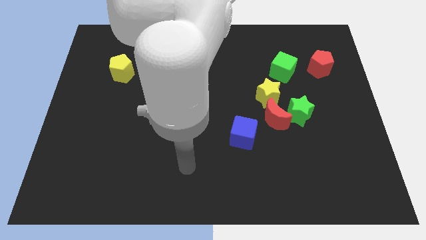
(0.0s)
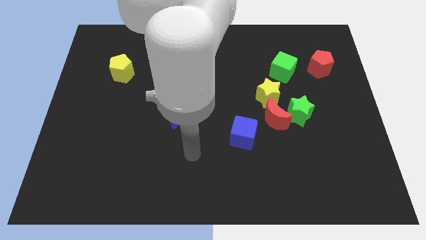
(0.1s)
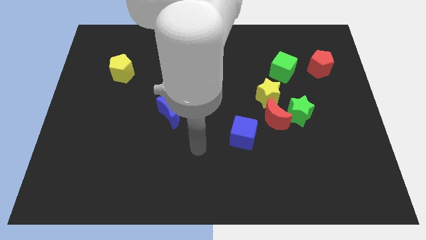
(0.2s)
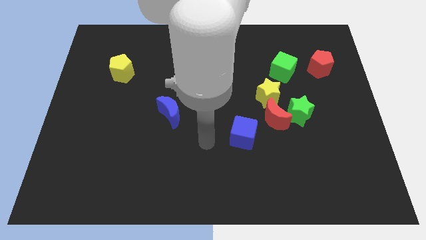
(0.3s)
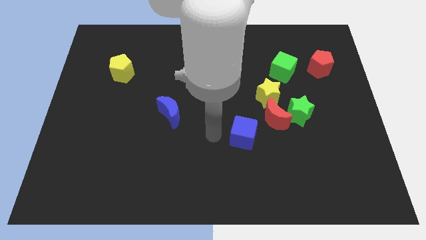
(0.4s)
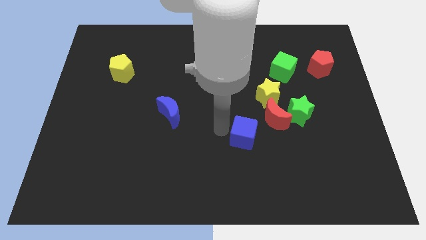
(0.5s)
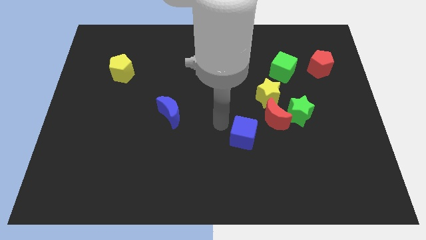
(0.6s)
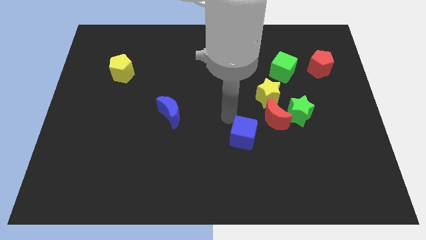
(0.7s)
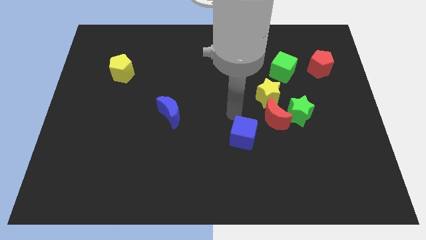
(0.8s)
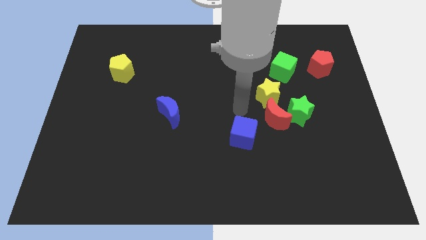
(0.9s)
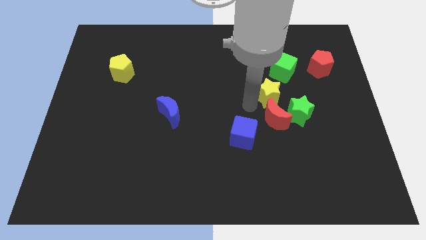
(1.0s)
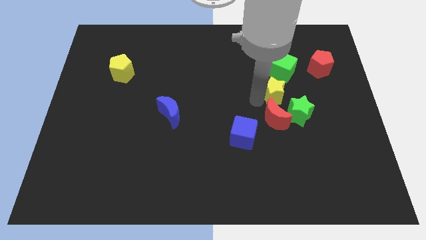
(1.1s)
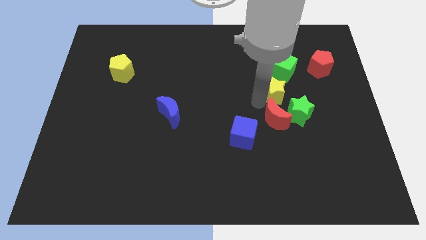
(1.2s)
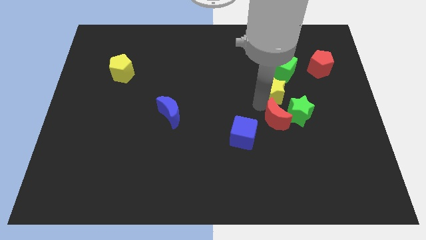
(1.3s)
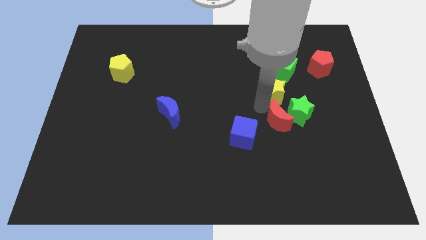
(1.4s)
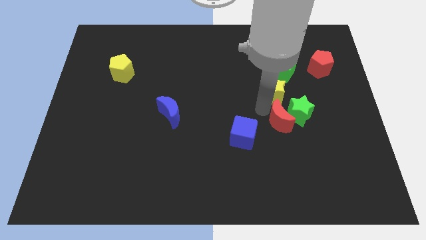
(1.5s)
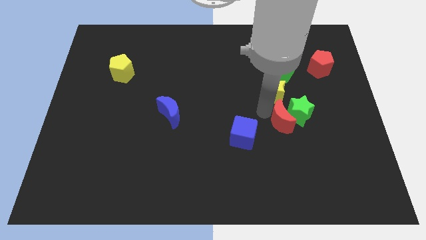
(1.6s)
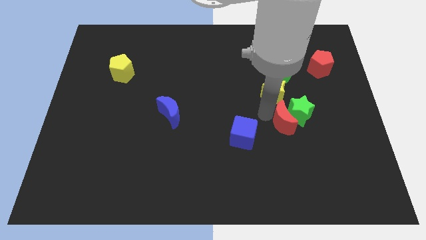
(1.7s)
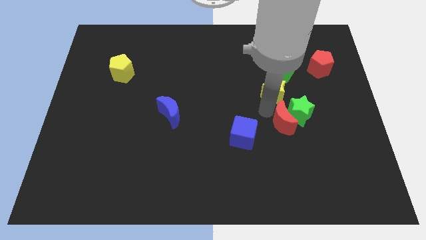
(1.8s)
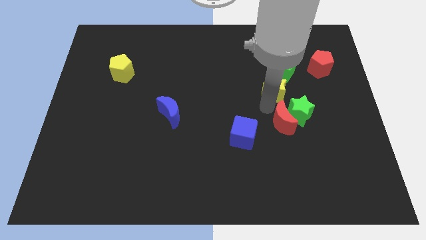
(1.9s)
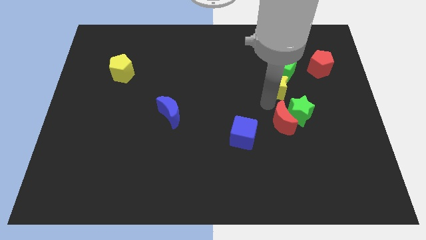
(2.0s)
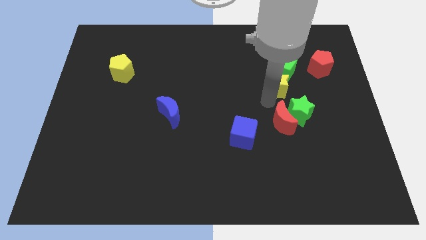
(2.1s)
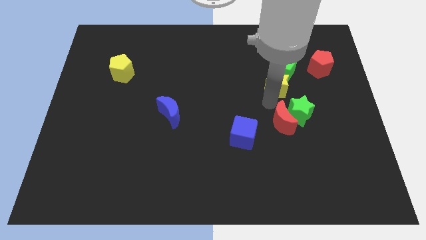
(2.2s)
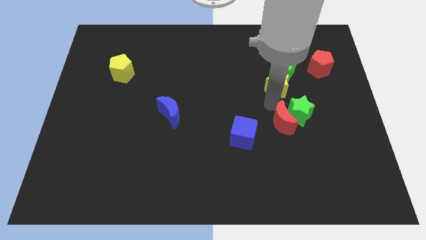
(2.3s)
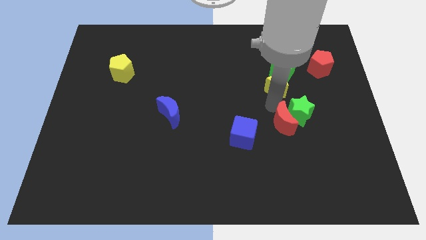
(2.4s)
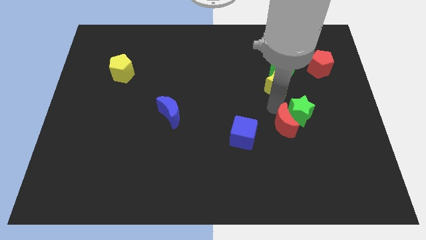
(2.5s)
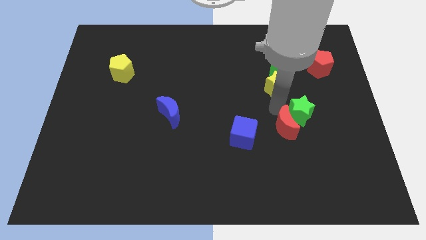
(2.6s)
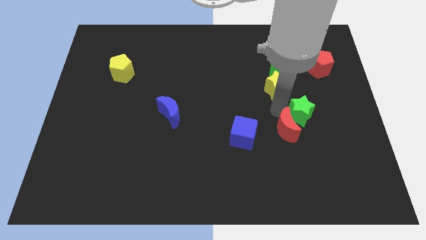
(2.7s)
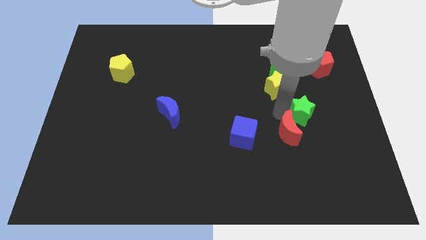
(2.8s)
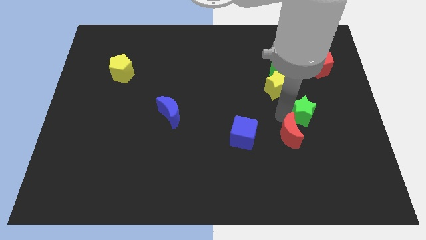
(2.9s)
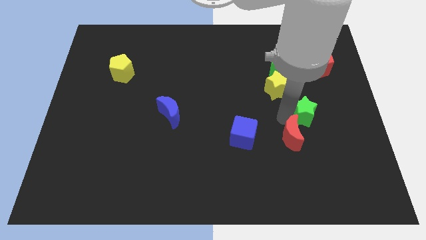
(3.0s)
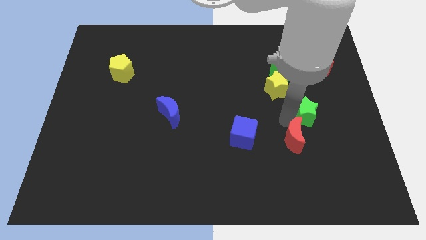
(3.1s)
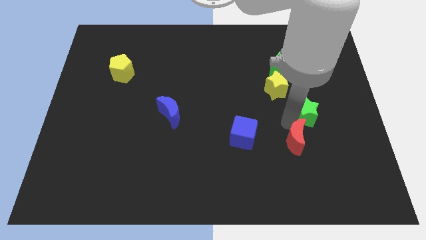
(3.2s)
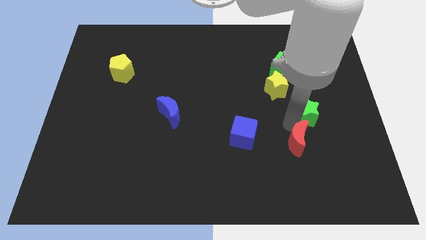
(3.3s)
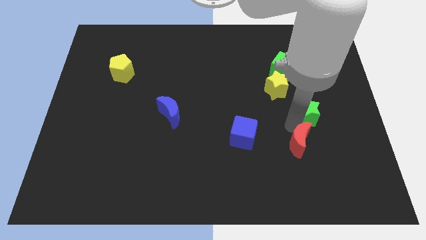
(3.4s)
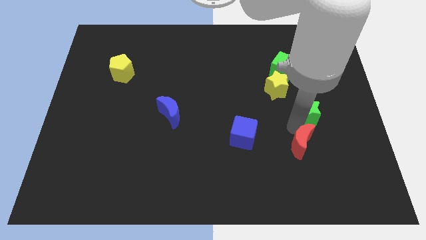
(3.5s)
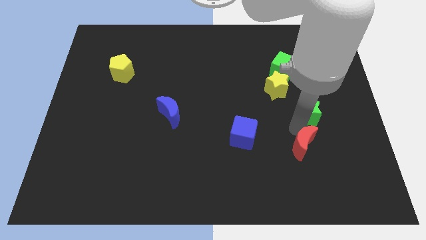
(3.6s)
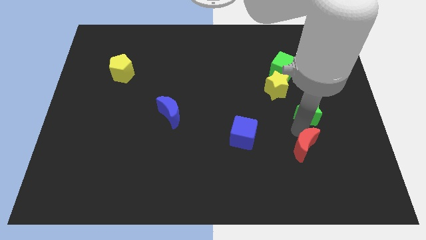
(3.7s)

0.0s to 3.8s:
separate the red moon from the group

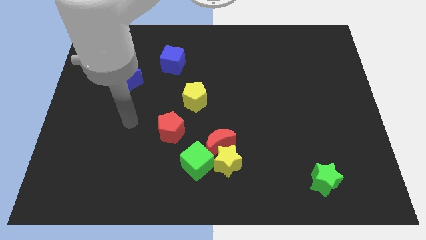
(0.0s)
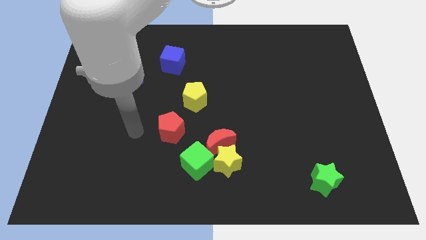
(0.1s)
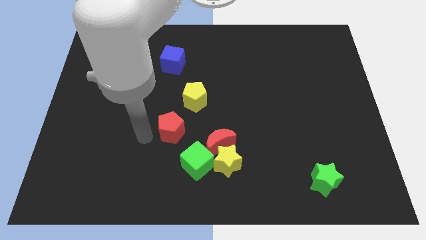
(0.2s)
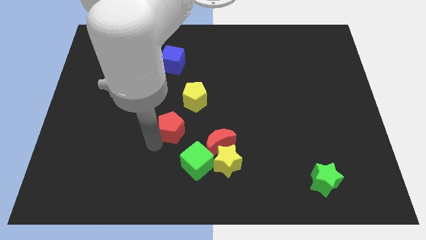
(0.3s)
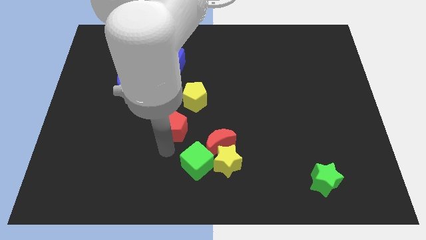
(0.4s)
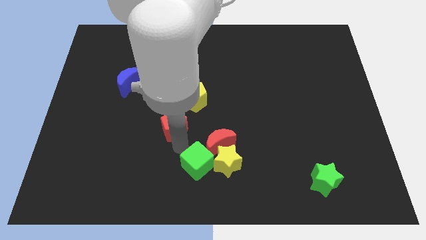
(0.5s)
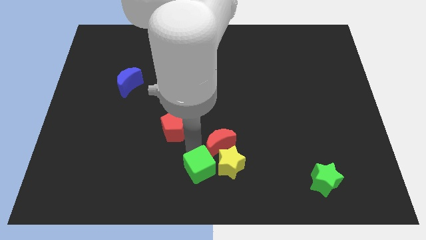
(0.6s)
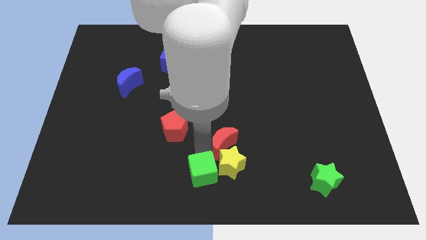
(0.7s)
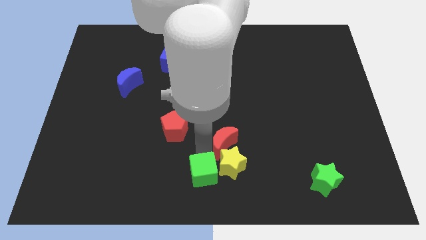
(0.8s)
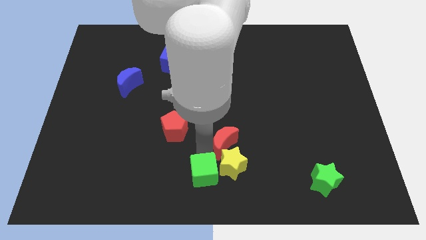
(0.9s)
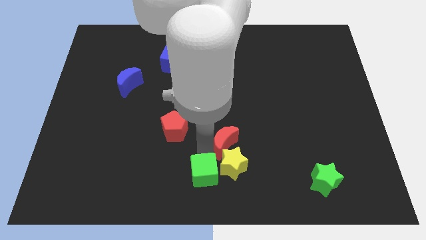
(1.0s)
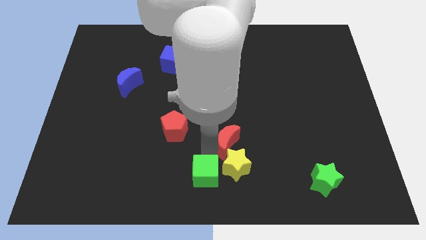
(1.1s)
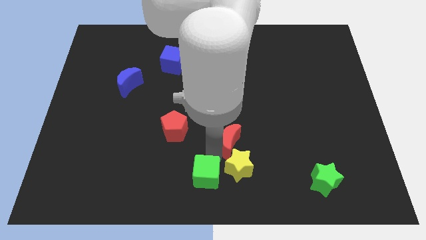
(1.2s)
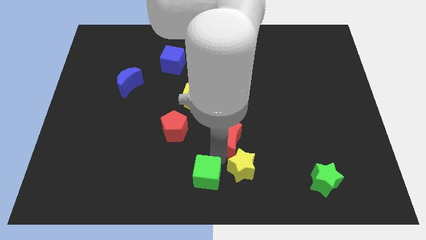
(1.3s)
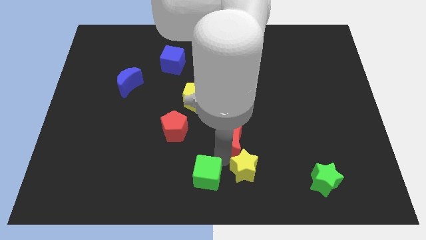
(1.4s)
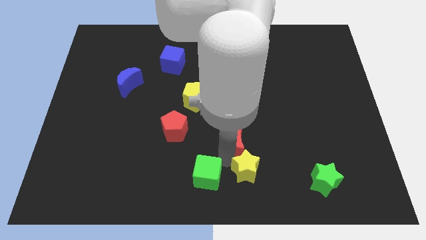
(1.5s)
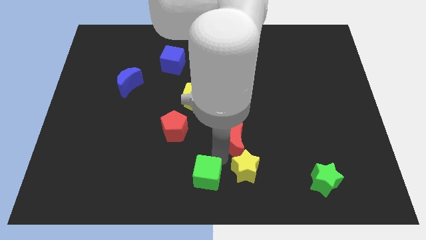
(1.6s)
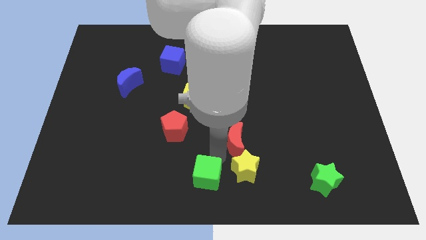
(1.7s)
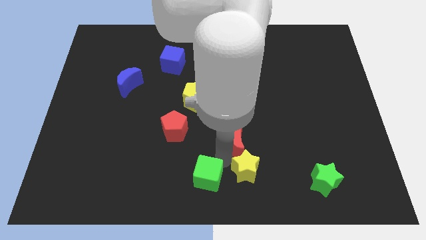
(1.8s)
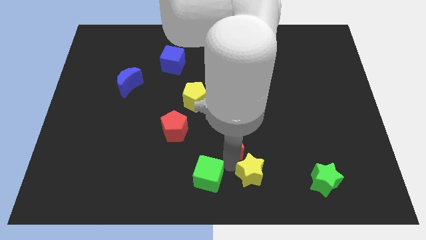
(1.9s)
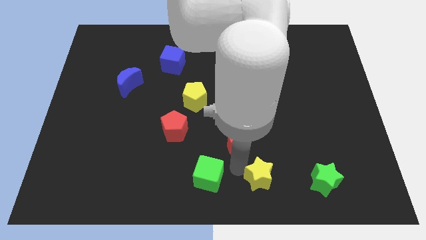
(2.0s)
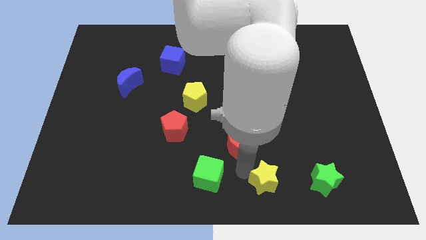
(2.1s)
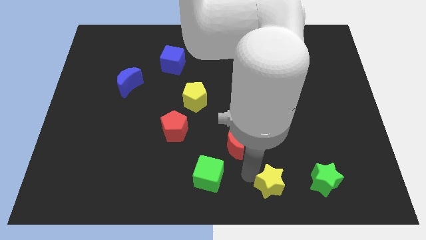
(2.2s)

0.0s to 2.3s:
separate the yellow star from the red moon and green cube

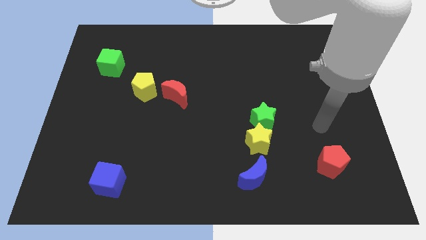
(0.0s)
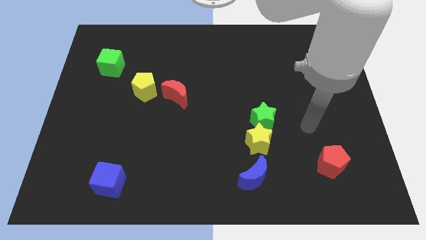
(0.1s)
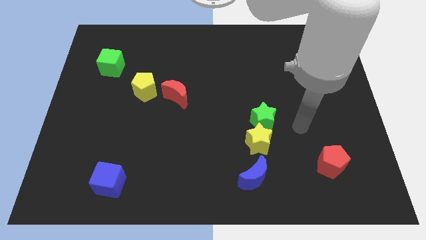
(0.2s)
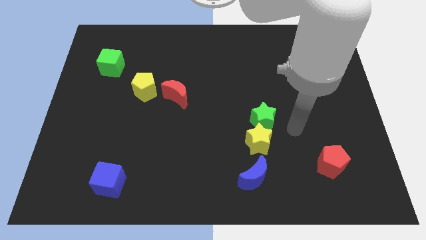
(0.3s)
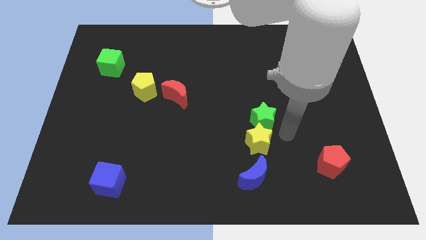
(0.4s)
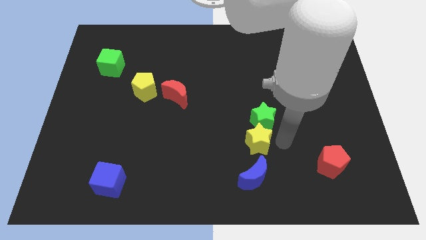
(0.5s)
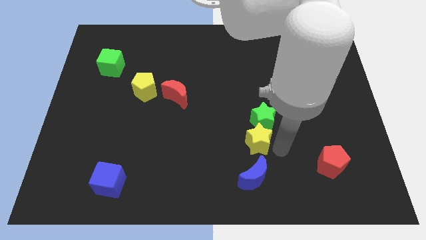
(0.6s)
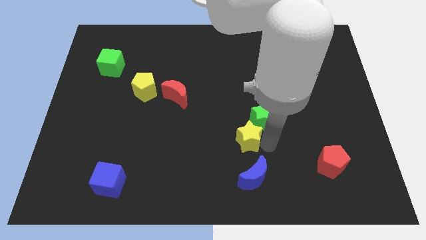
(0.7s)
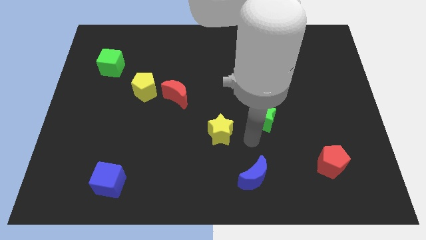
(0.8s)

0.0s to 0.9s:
move the green star away from the yellow star

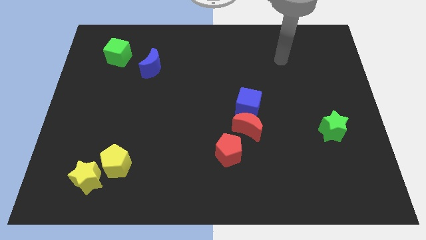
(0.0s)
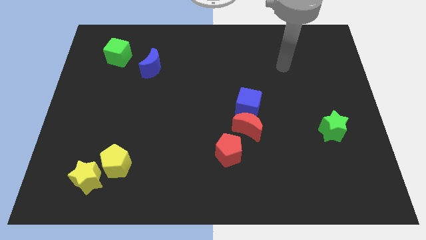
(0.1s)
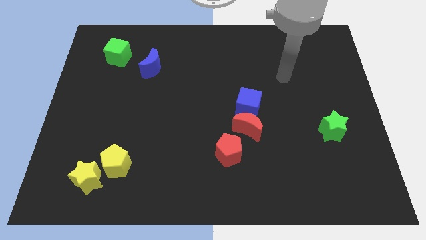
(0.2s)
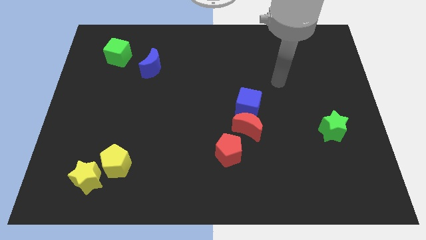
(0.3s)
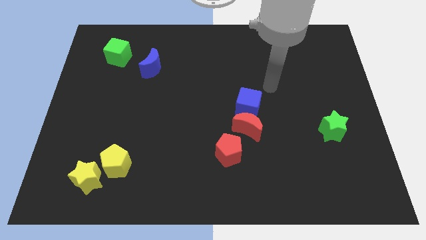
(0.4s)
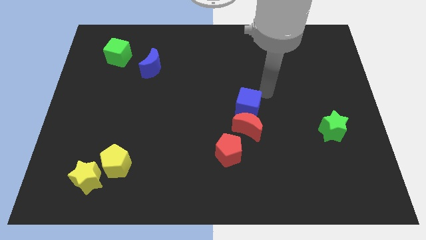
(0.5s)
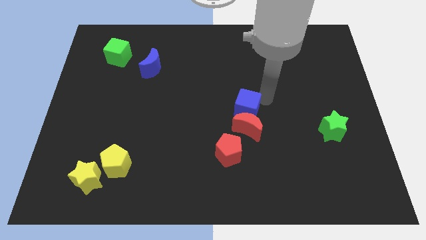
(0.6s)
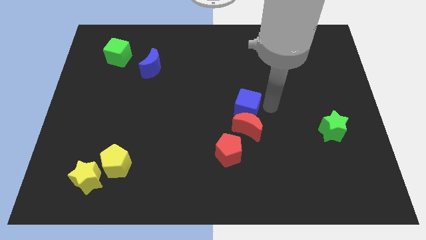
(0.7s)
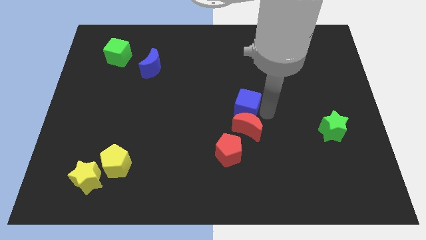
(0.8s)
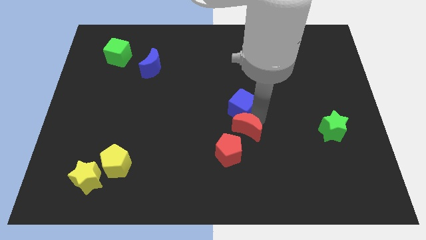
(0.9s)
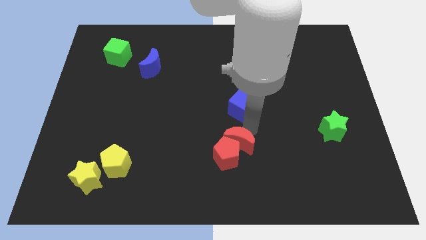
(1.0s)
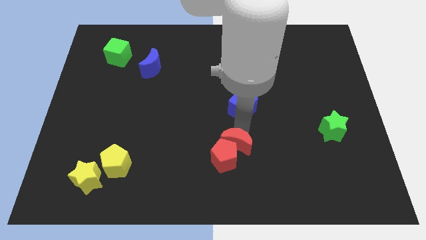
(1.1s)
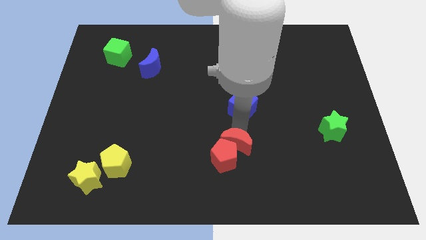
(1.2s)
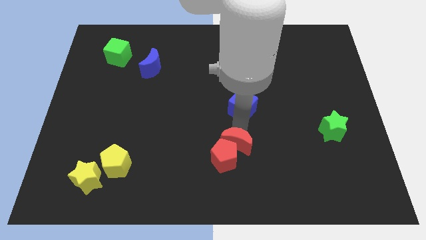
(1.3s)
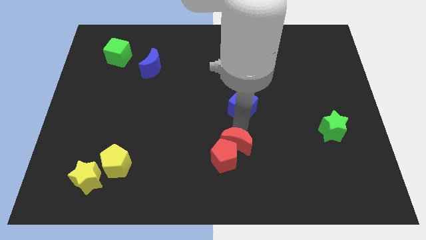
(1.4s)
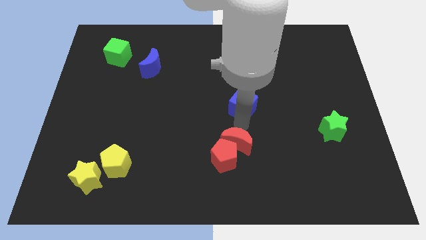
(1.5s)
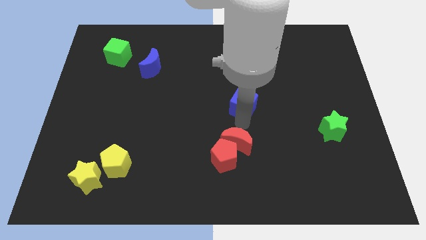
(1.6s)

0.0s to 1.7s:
pull the blue cube apart from the red moon

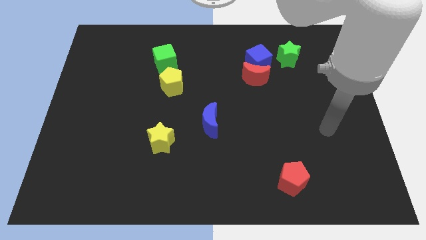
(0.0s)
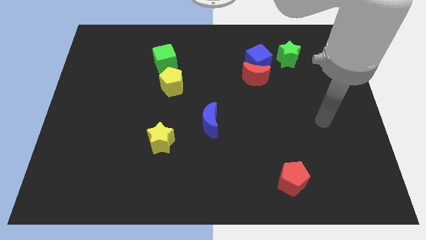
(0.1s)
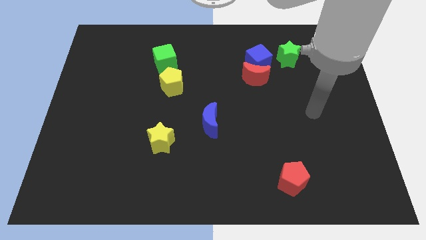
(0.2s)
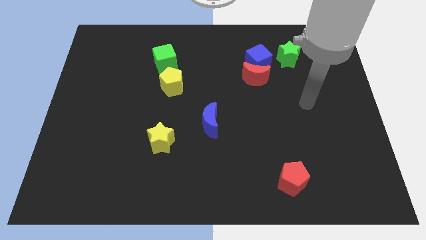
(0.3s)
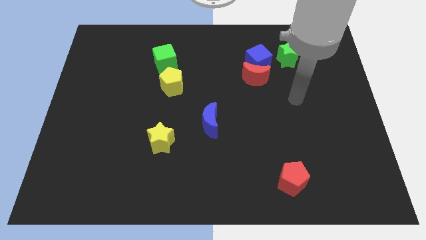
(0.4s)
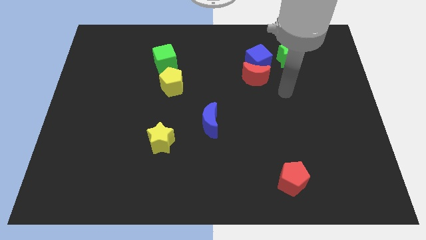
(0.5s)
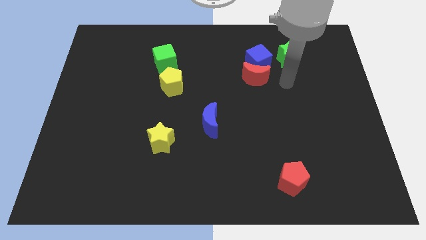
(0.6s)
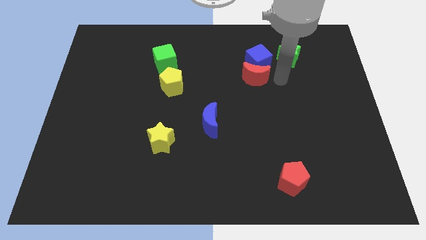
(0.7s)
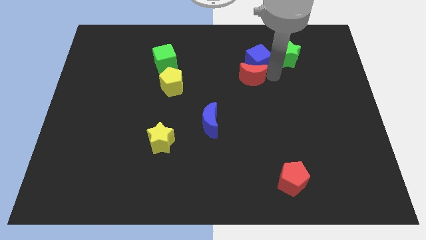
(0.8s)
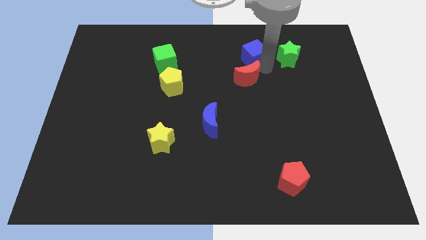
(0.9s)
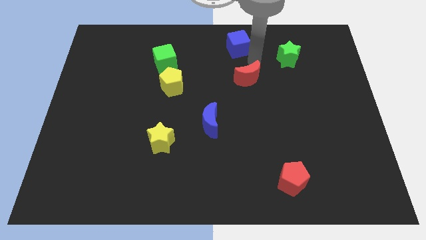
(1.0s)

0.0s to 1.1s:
pull the red moon apart from the blue cube
